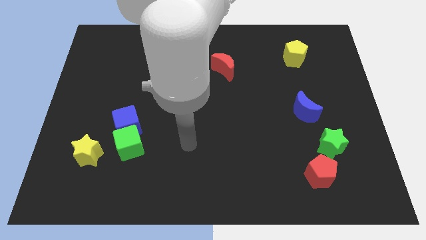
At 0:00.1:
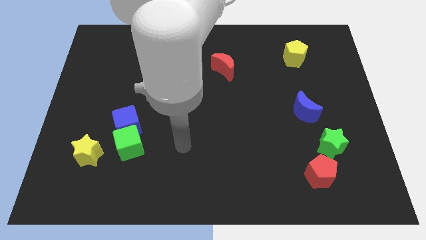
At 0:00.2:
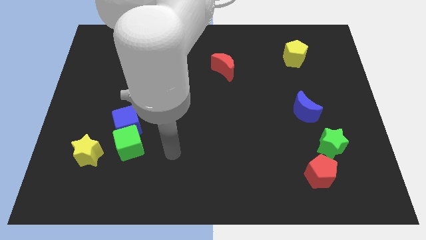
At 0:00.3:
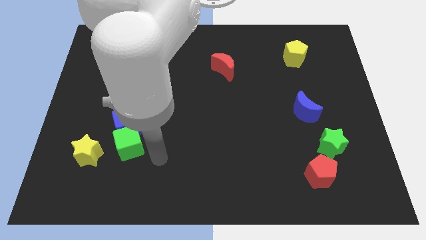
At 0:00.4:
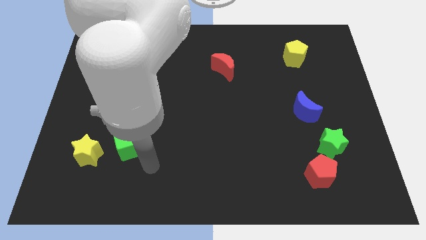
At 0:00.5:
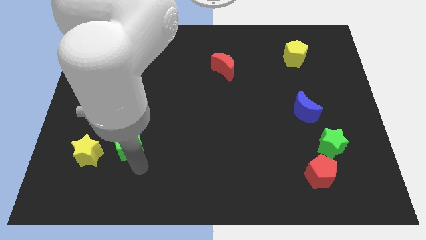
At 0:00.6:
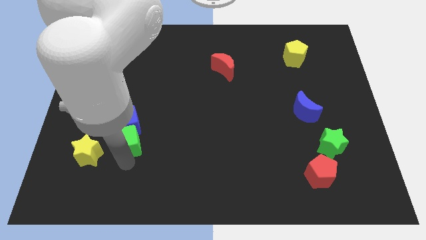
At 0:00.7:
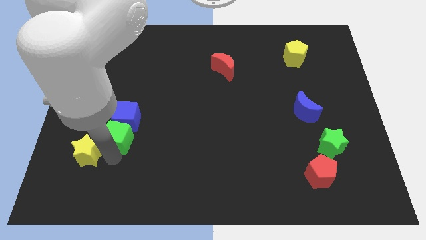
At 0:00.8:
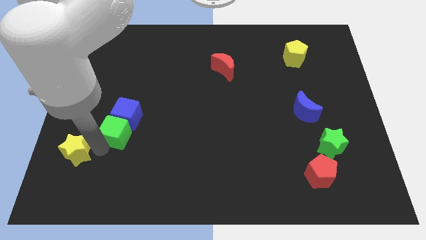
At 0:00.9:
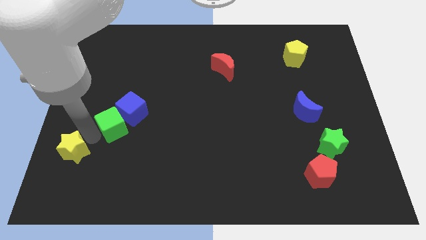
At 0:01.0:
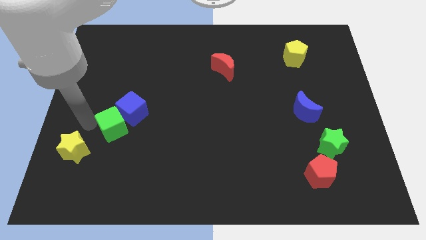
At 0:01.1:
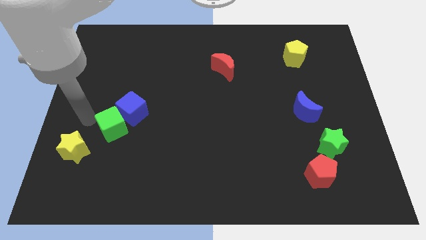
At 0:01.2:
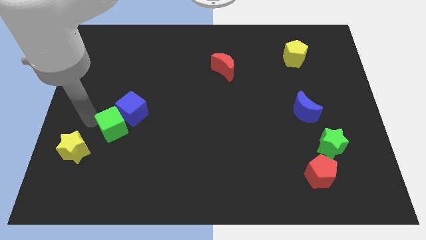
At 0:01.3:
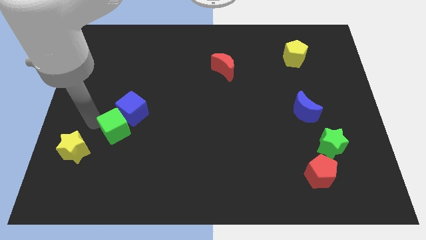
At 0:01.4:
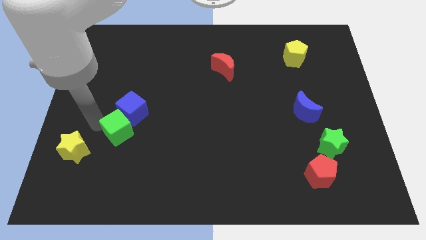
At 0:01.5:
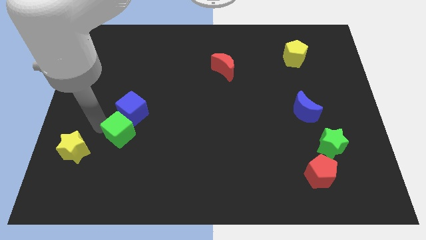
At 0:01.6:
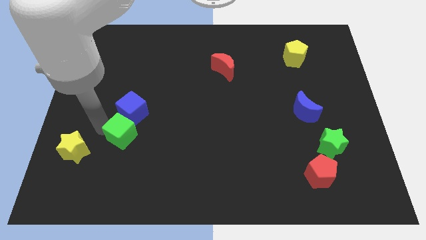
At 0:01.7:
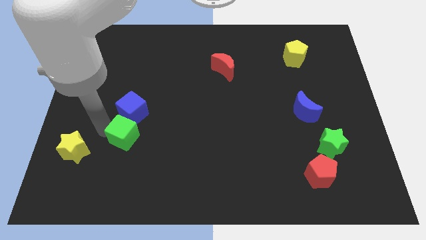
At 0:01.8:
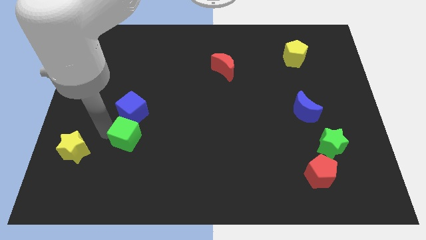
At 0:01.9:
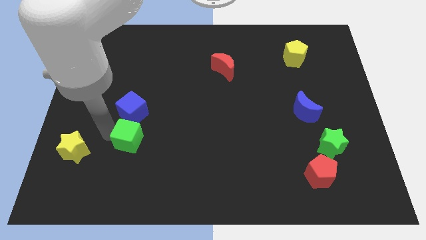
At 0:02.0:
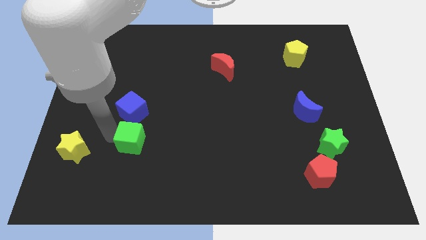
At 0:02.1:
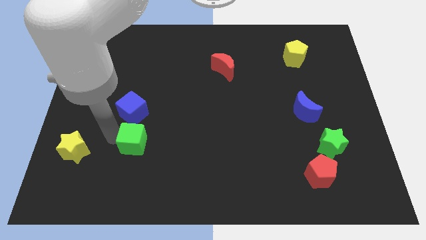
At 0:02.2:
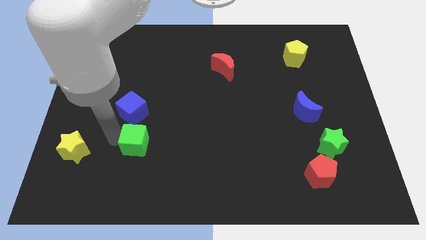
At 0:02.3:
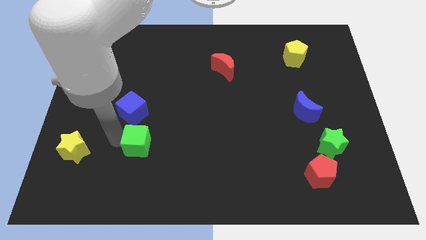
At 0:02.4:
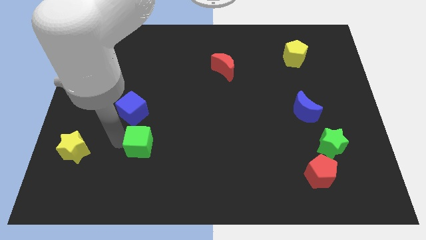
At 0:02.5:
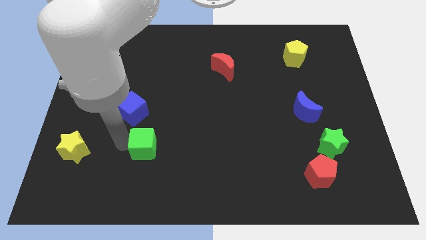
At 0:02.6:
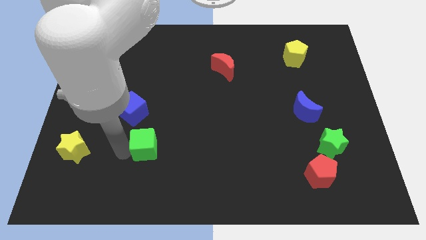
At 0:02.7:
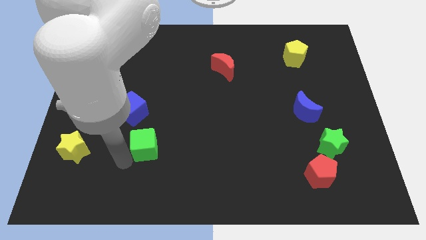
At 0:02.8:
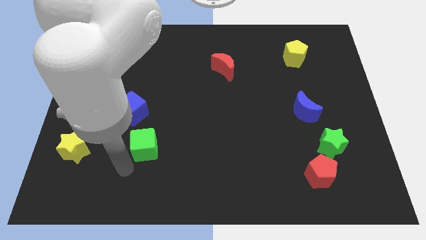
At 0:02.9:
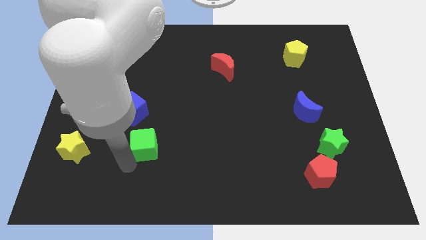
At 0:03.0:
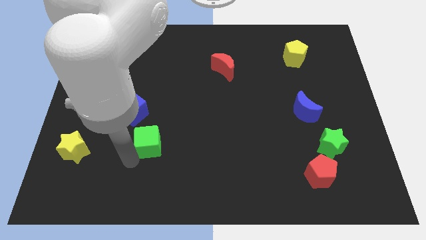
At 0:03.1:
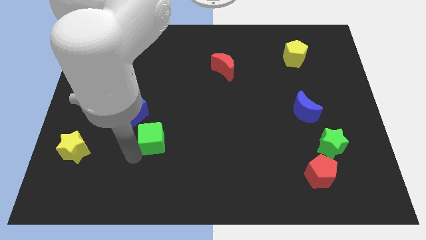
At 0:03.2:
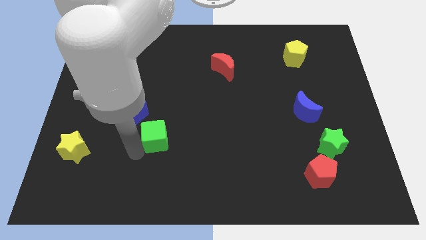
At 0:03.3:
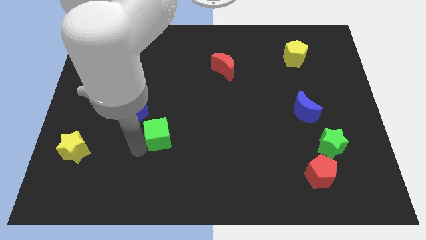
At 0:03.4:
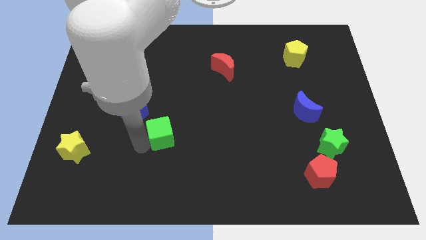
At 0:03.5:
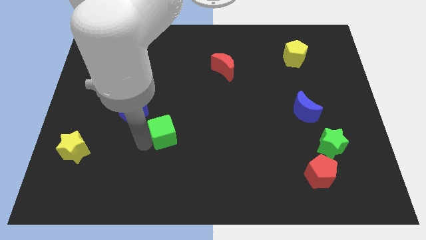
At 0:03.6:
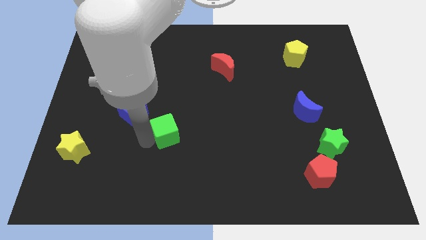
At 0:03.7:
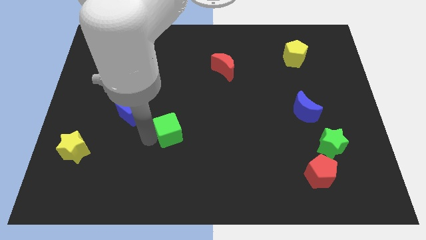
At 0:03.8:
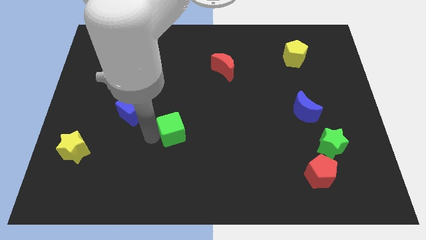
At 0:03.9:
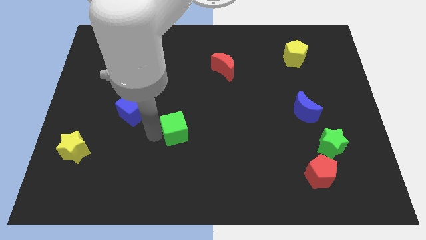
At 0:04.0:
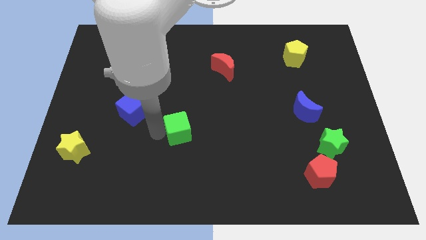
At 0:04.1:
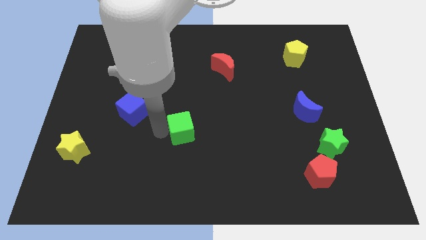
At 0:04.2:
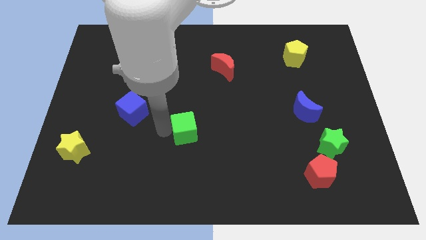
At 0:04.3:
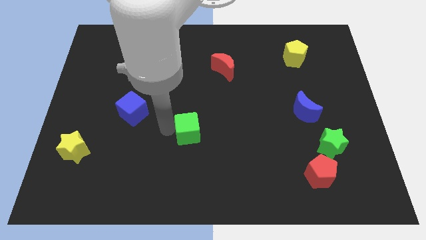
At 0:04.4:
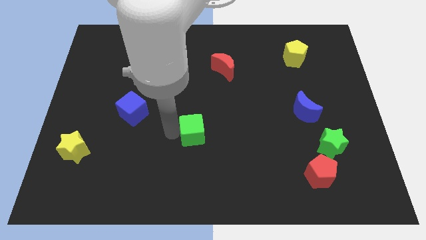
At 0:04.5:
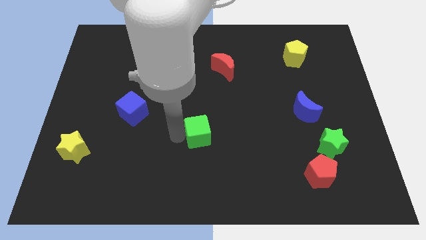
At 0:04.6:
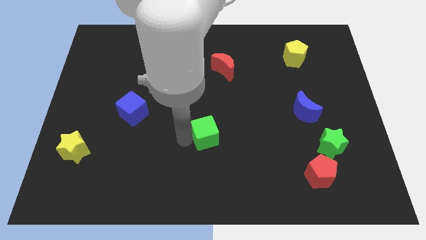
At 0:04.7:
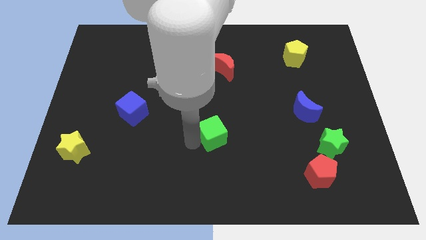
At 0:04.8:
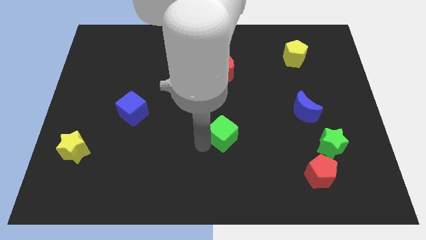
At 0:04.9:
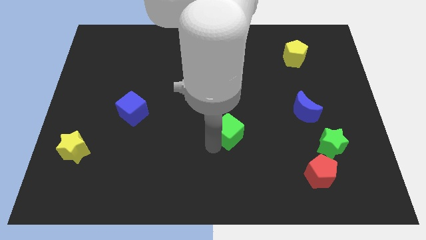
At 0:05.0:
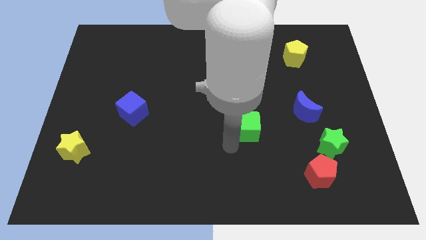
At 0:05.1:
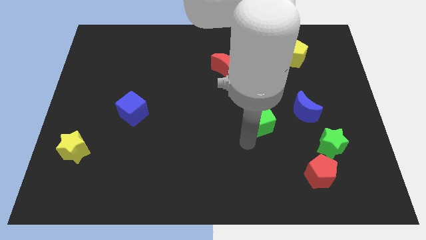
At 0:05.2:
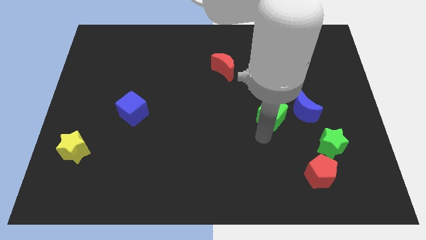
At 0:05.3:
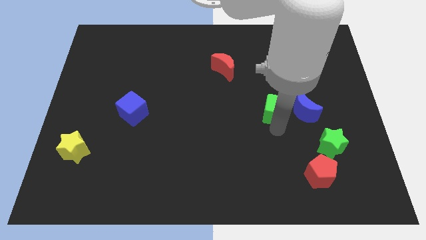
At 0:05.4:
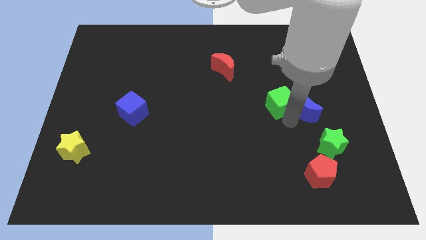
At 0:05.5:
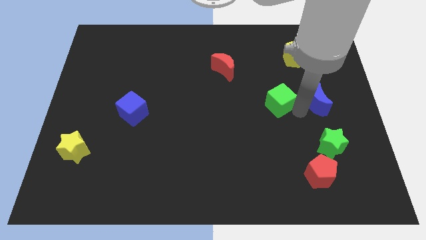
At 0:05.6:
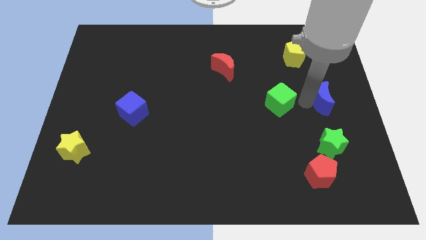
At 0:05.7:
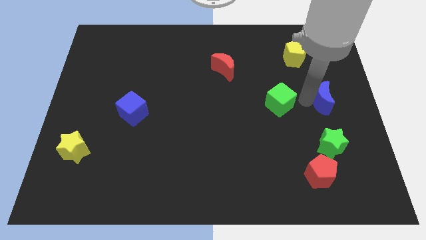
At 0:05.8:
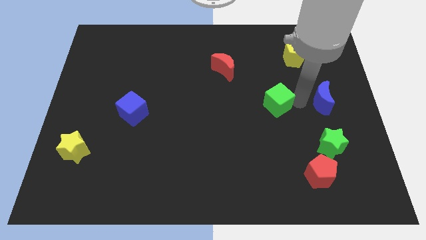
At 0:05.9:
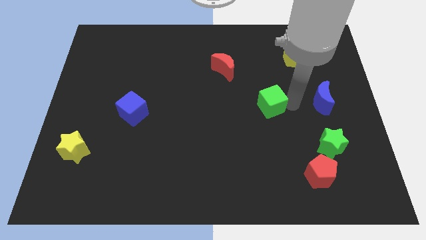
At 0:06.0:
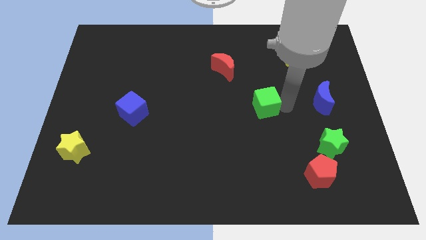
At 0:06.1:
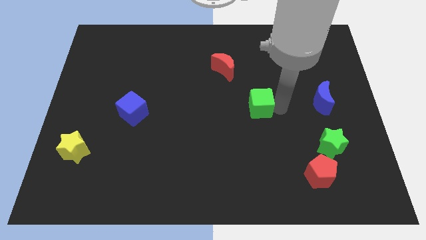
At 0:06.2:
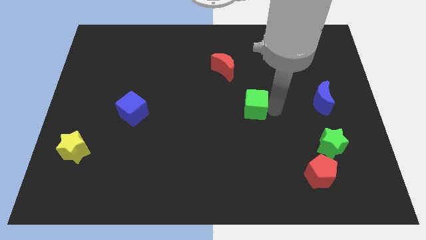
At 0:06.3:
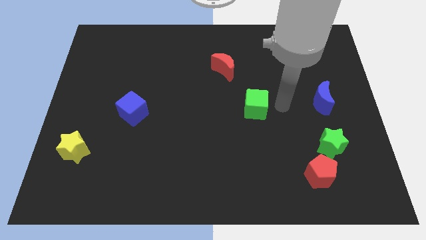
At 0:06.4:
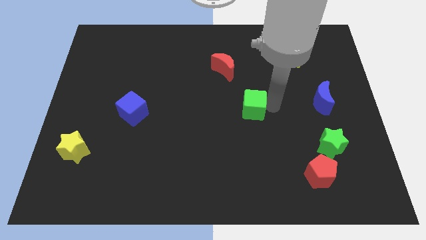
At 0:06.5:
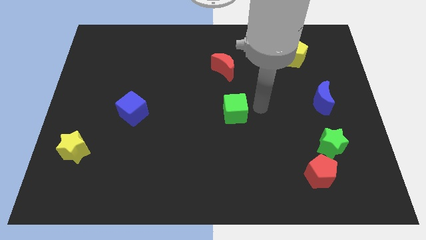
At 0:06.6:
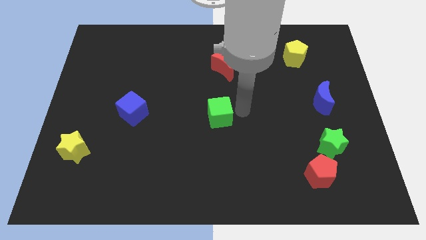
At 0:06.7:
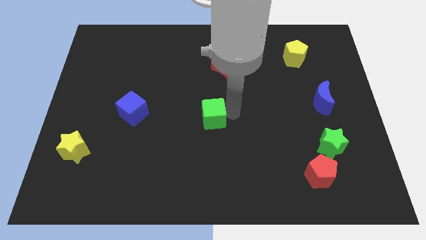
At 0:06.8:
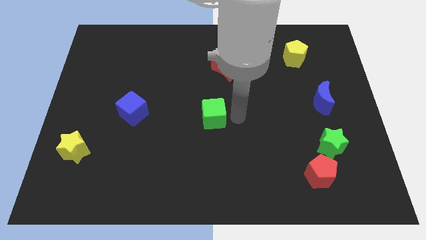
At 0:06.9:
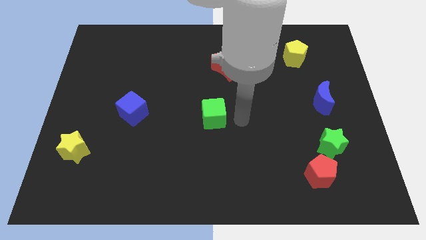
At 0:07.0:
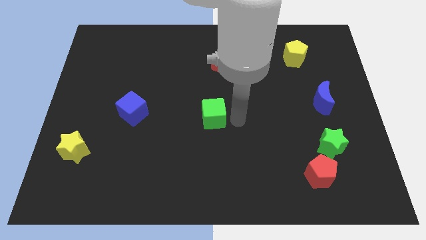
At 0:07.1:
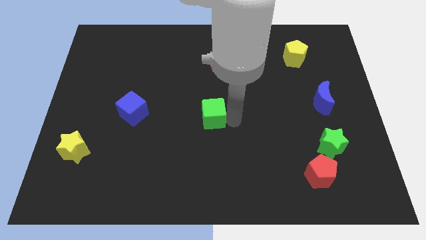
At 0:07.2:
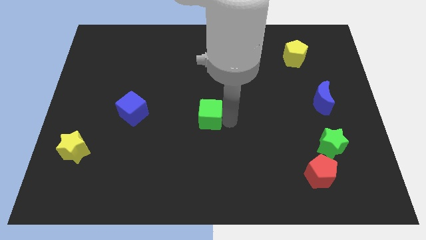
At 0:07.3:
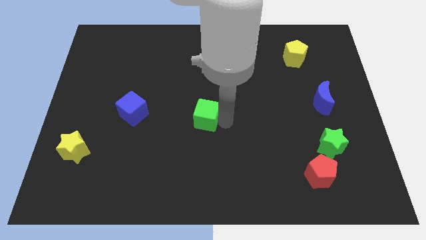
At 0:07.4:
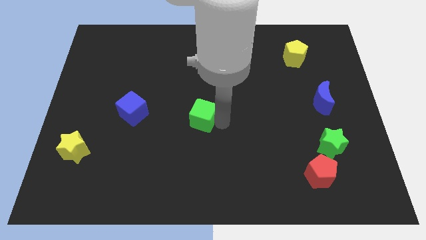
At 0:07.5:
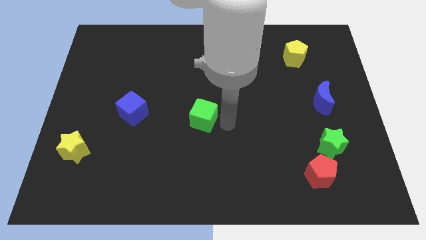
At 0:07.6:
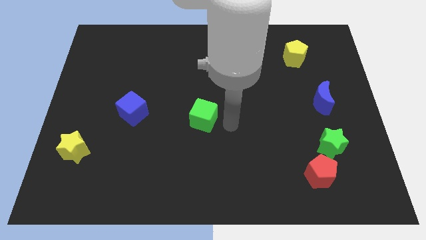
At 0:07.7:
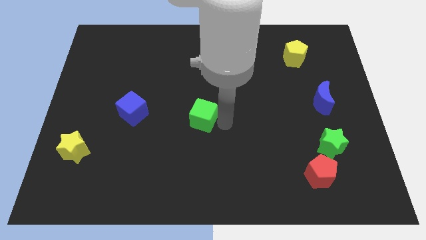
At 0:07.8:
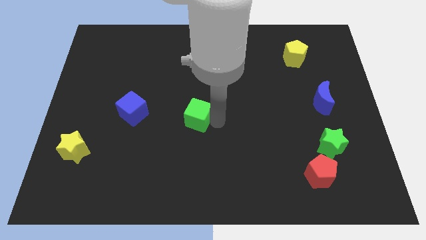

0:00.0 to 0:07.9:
move the green cube right of the blue cube
